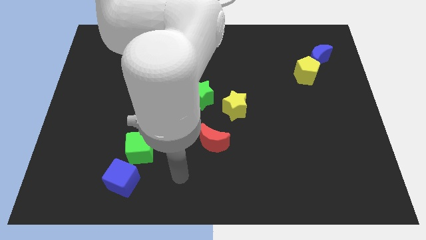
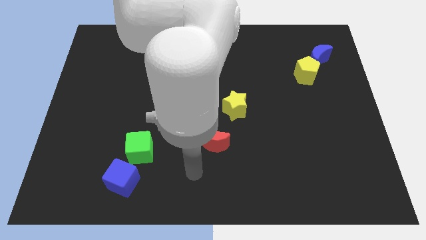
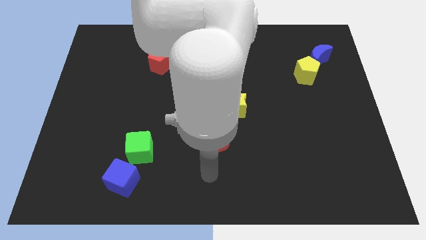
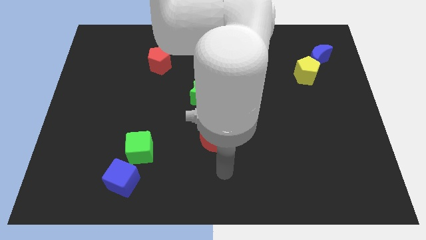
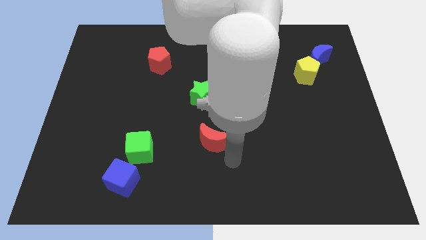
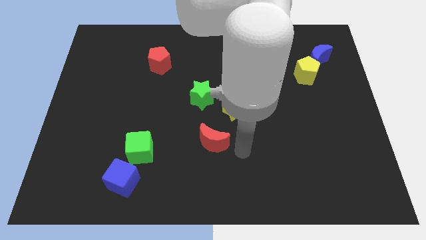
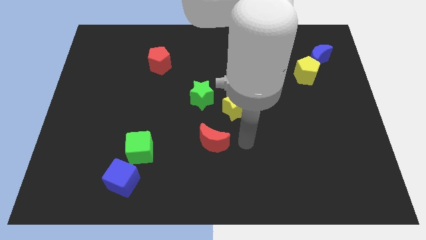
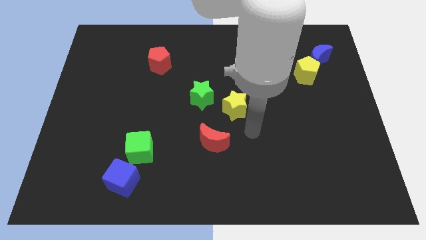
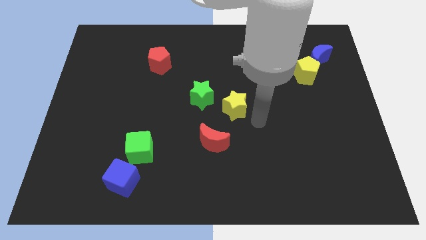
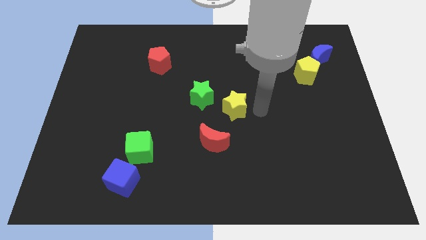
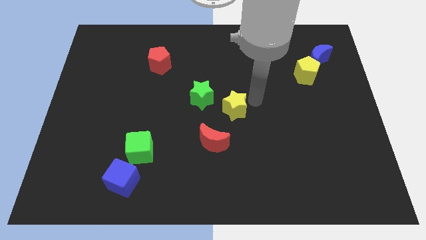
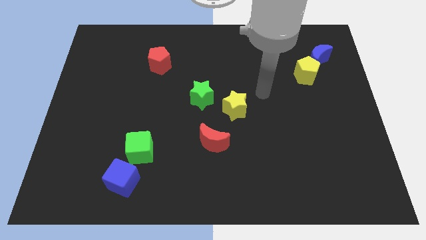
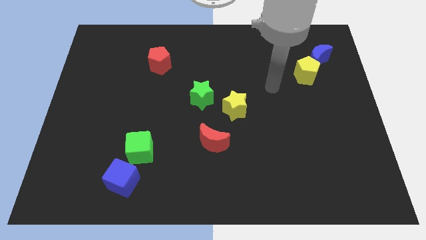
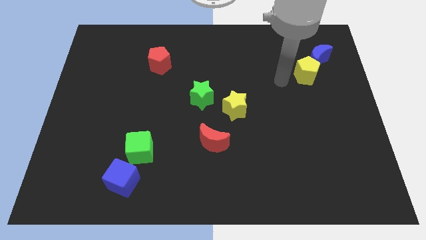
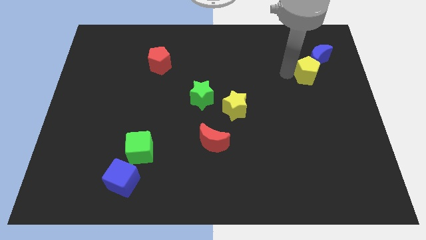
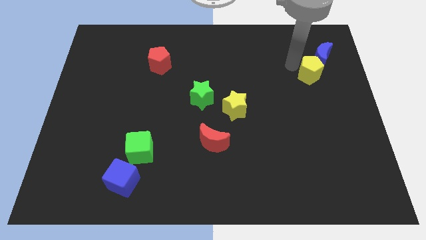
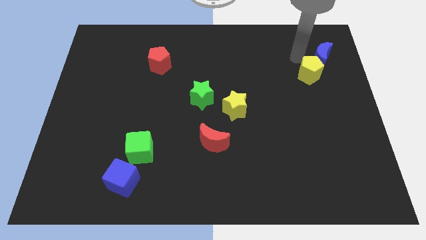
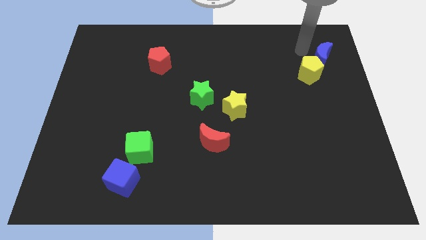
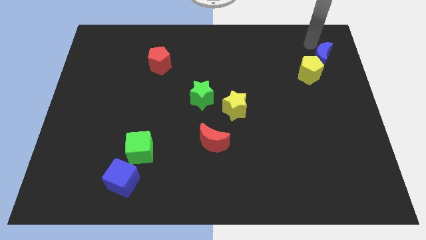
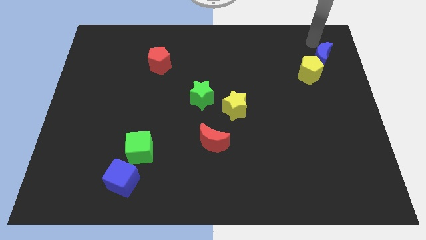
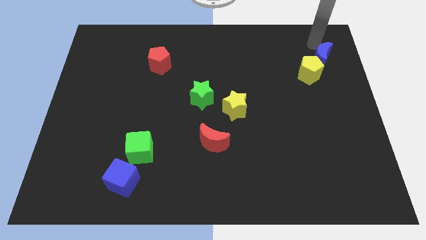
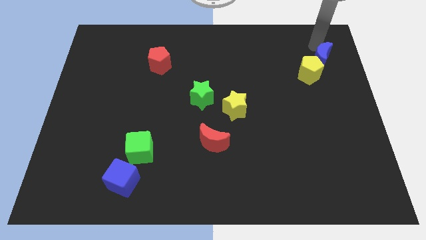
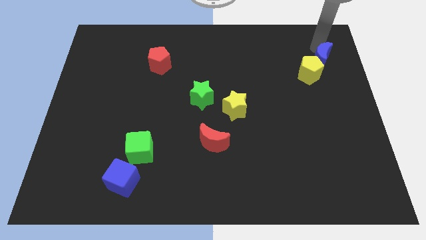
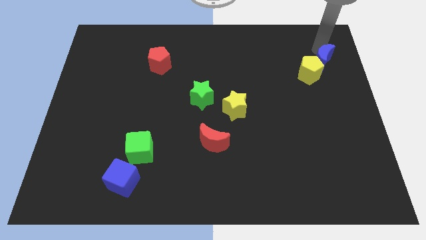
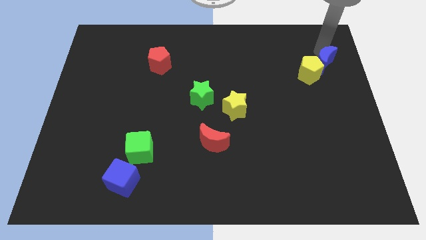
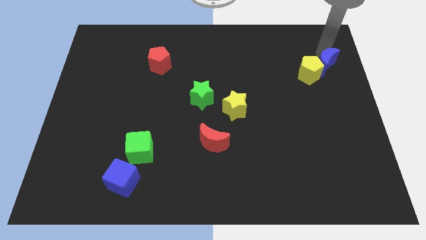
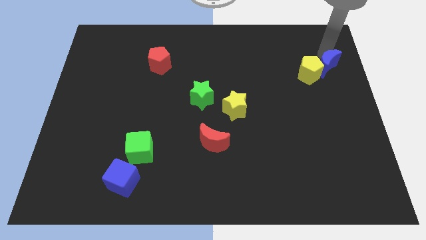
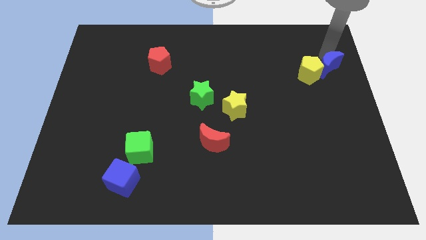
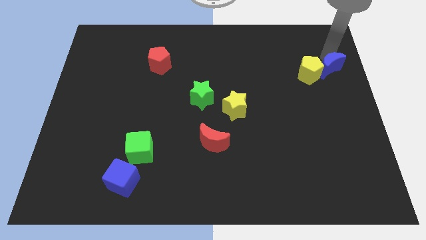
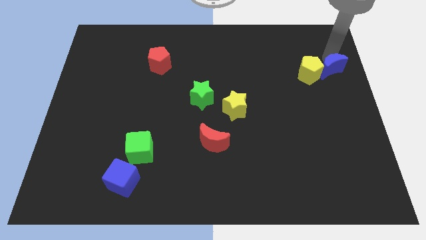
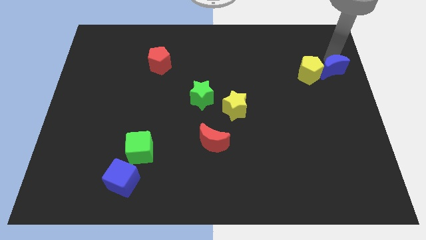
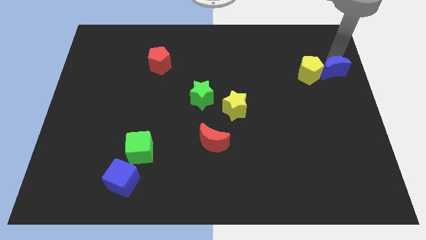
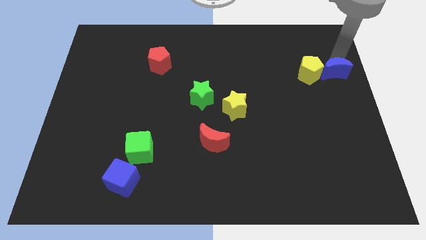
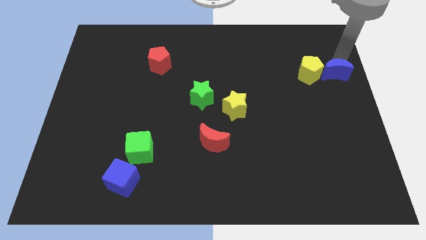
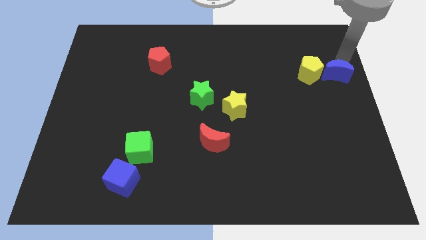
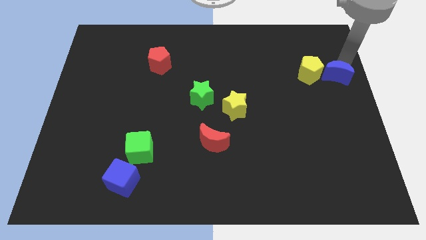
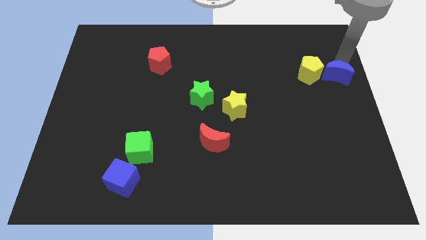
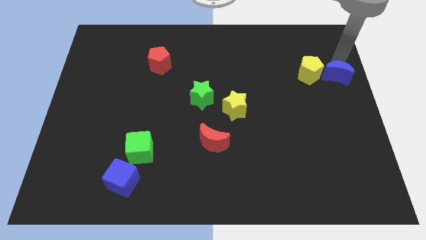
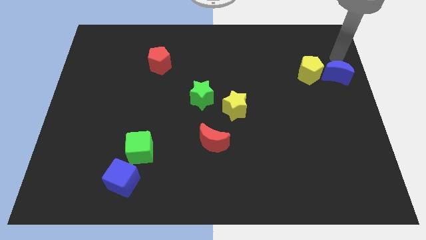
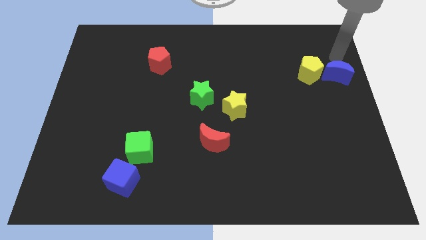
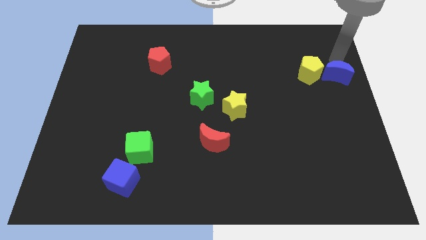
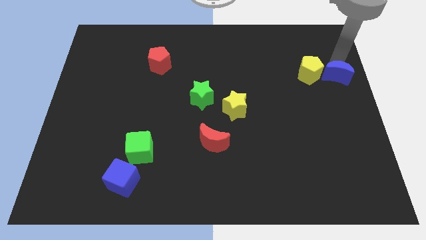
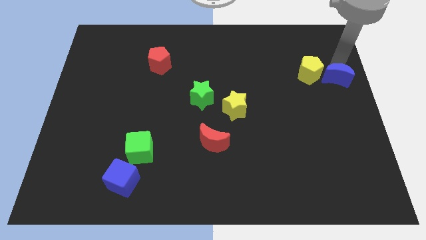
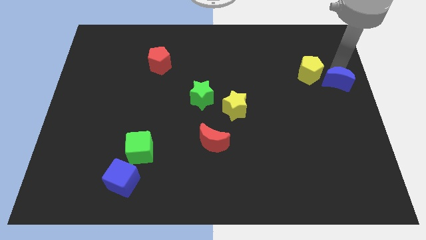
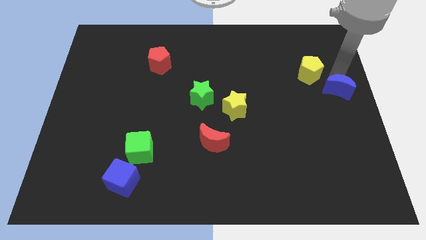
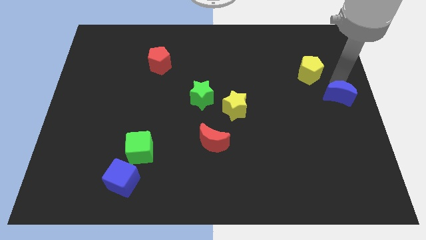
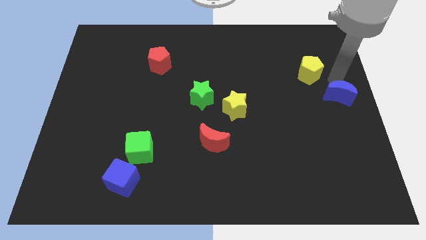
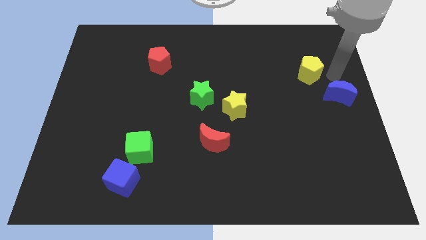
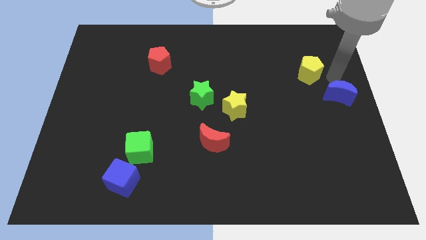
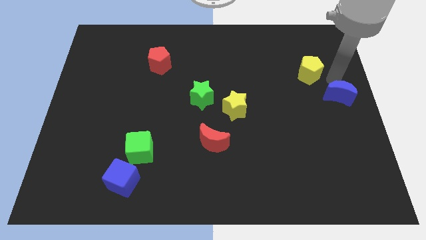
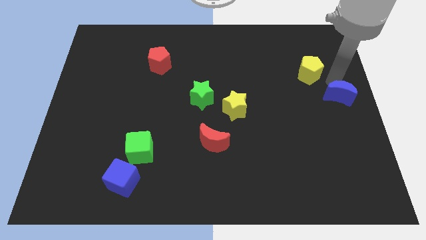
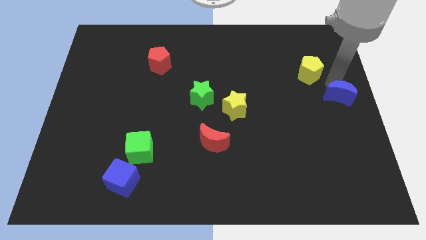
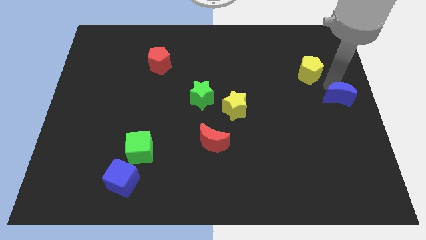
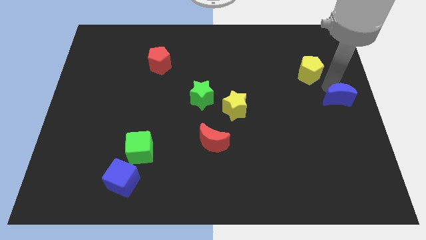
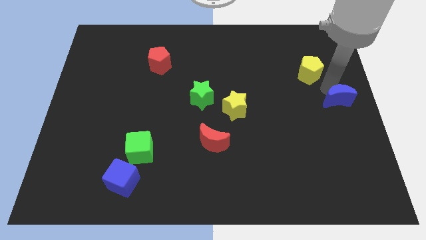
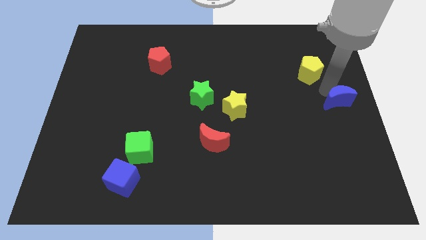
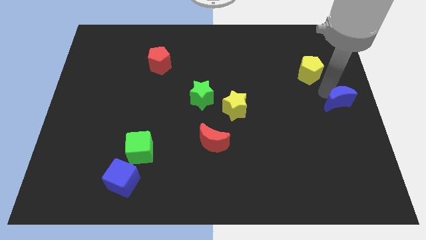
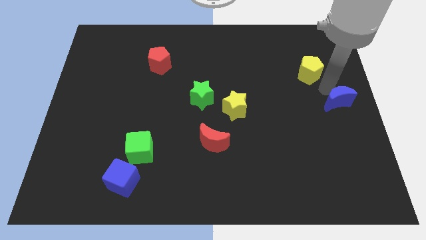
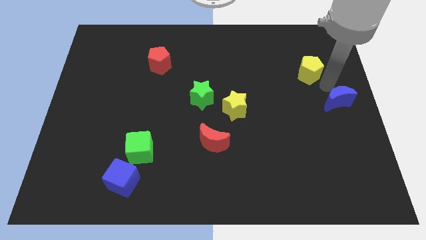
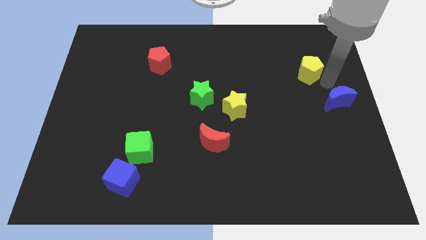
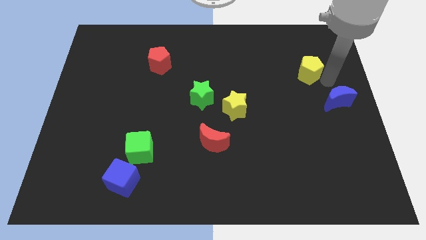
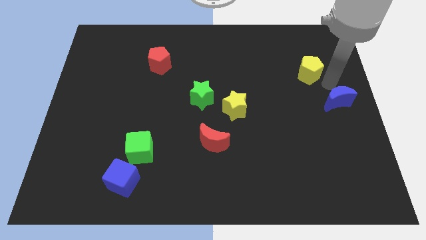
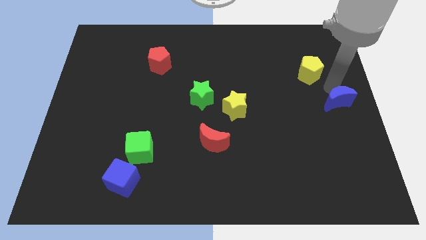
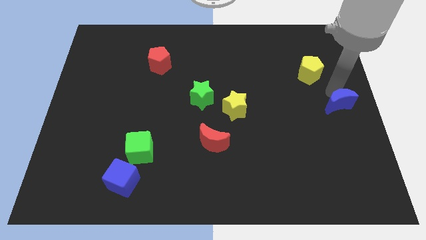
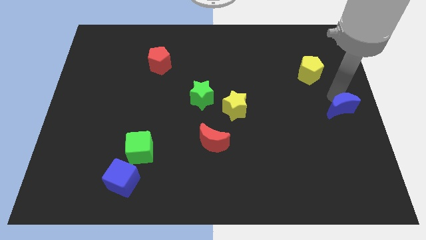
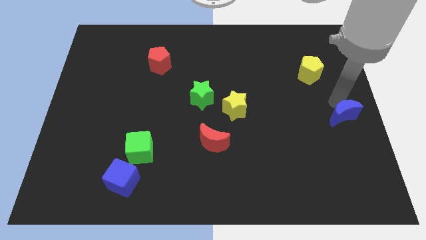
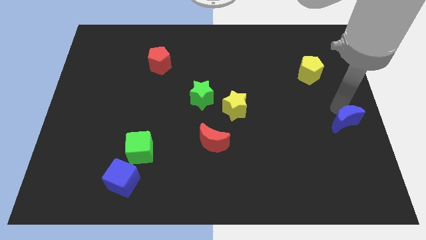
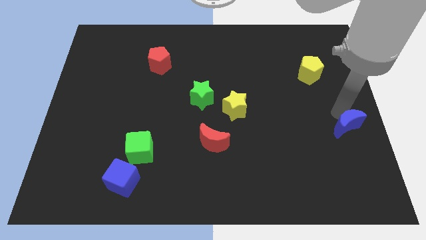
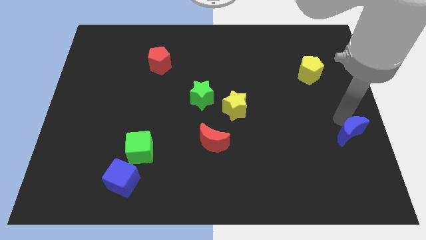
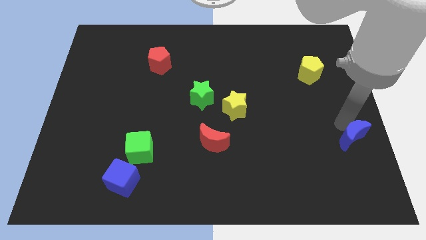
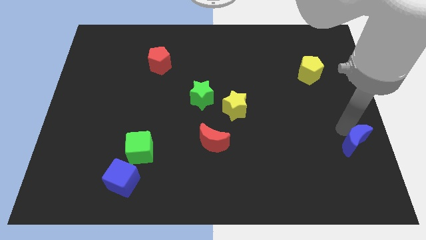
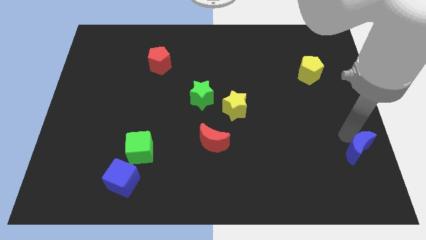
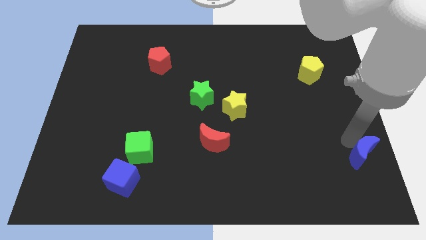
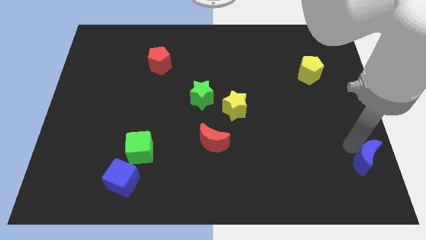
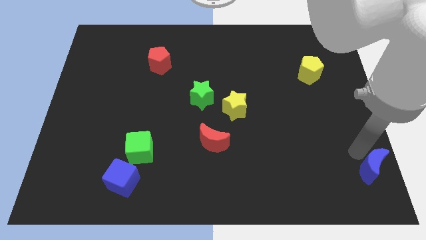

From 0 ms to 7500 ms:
move the blue moon to the lower right corner
